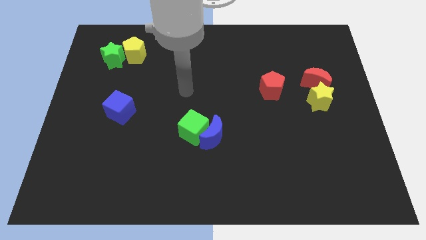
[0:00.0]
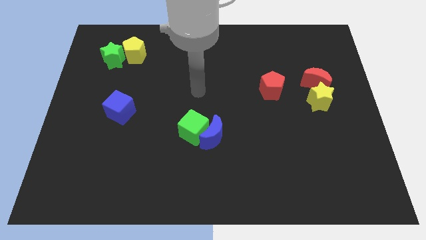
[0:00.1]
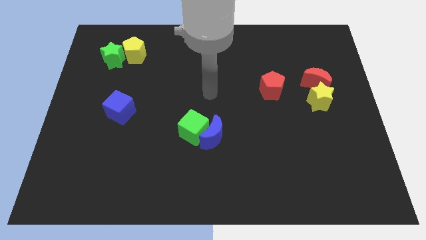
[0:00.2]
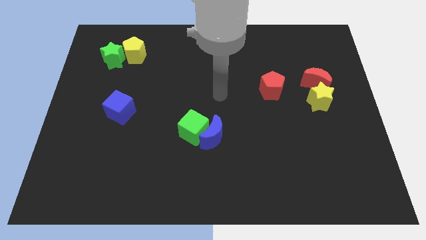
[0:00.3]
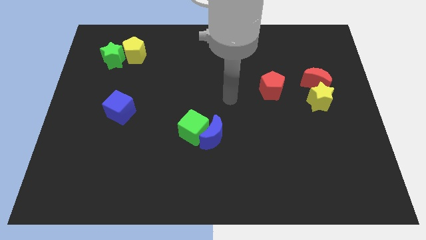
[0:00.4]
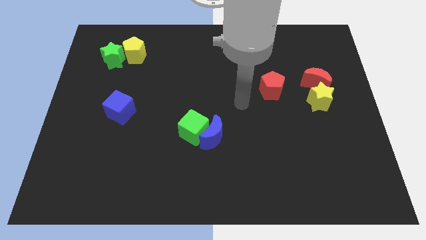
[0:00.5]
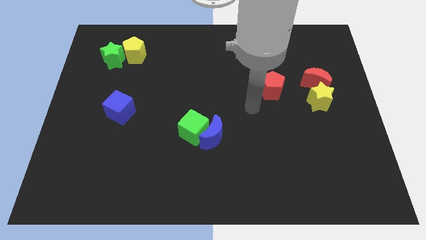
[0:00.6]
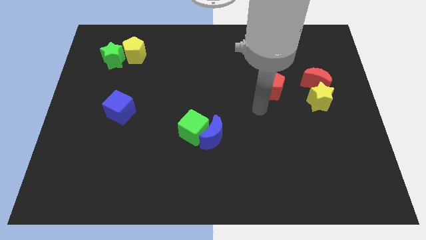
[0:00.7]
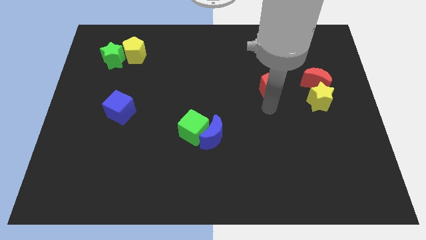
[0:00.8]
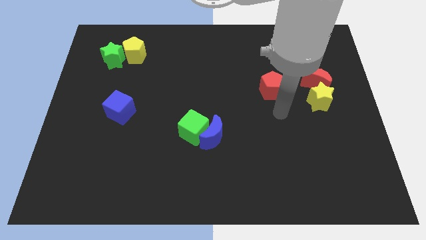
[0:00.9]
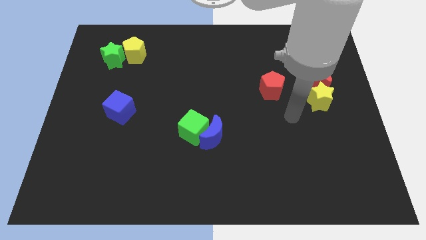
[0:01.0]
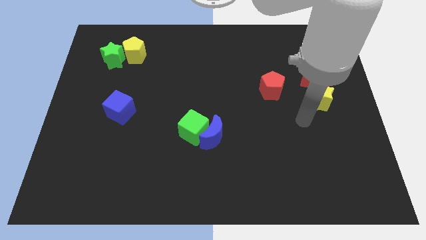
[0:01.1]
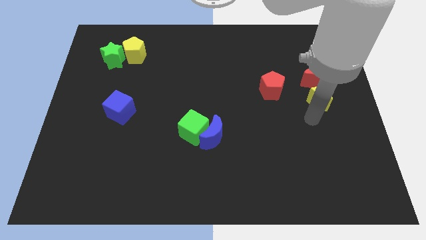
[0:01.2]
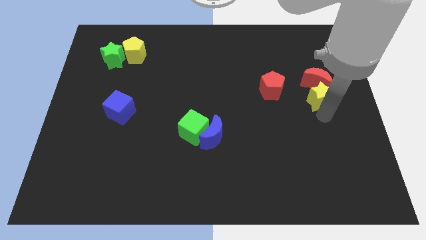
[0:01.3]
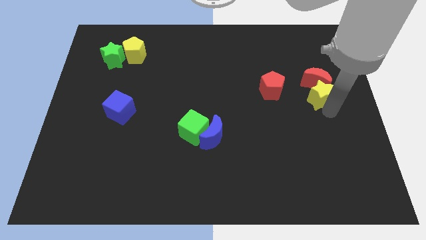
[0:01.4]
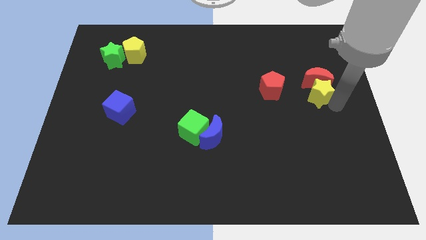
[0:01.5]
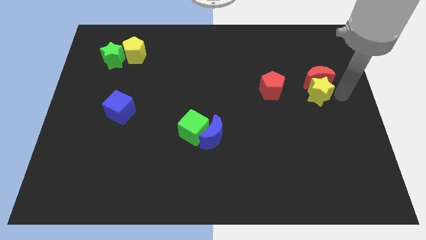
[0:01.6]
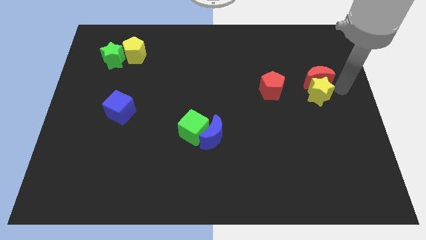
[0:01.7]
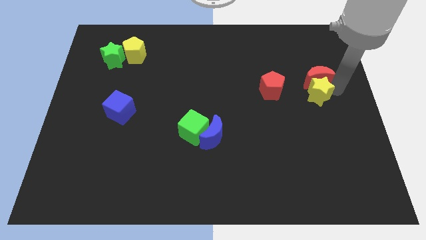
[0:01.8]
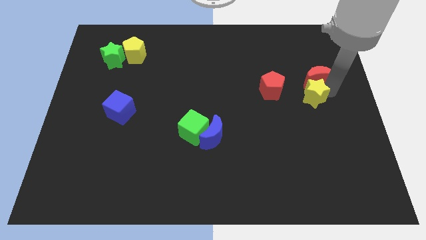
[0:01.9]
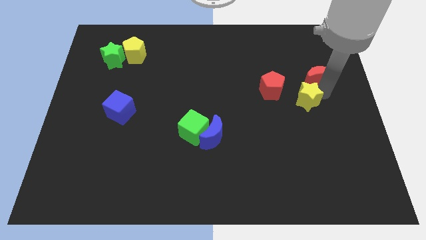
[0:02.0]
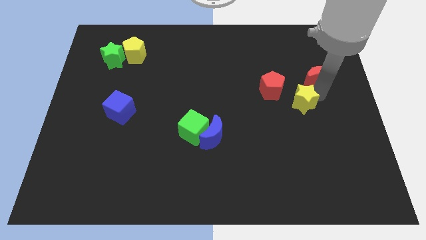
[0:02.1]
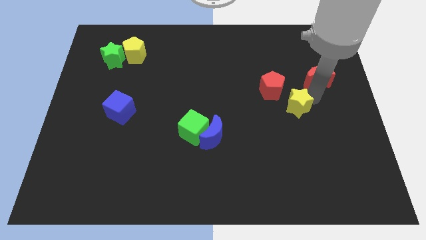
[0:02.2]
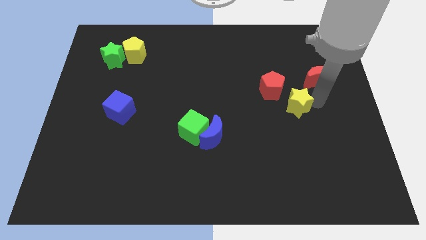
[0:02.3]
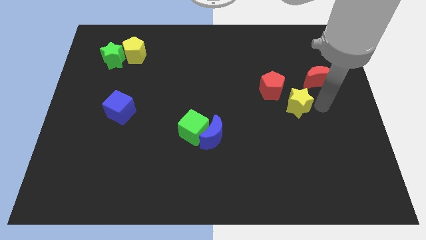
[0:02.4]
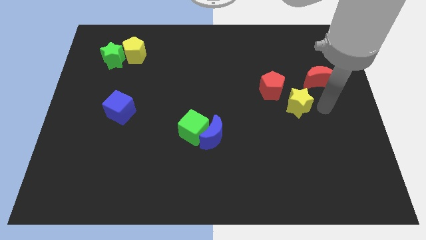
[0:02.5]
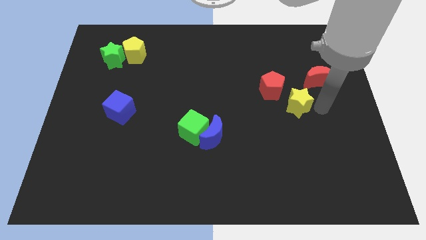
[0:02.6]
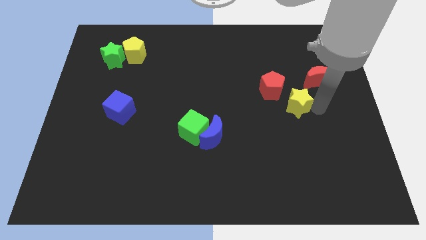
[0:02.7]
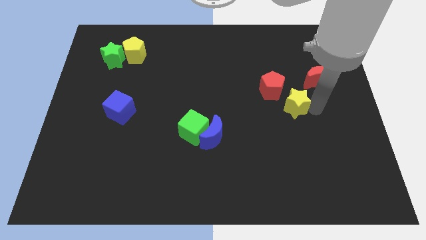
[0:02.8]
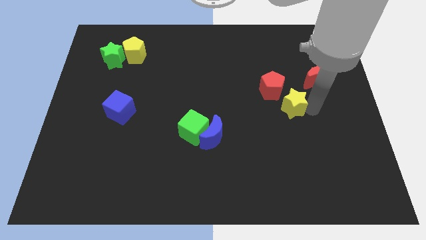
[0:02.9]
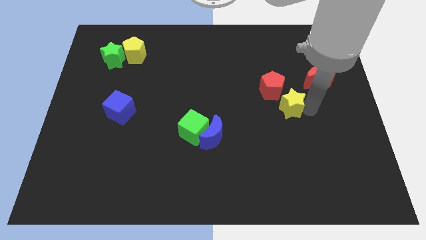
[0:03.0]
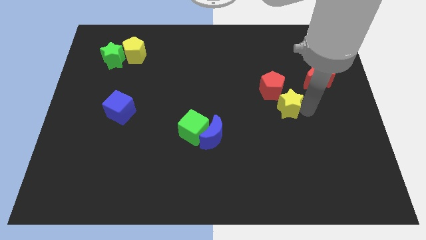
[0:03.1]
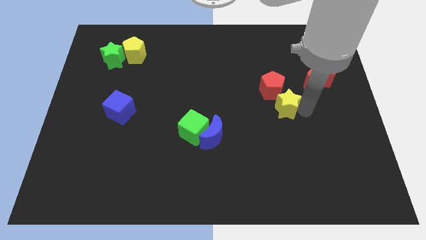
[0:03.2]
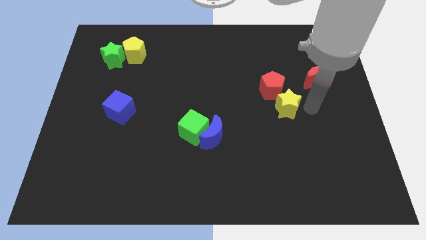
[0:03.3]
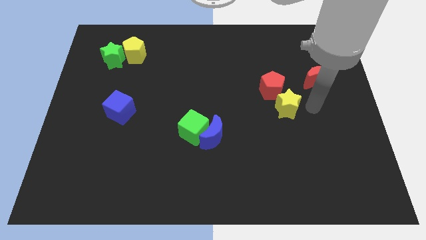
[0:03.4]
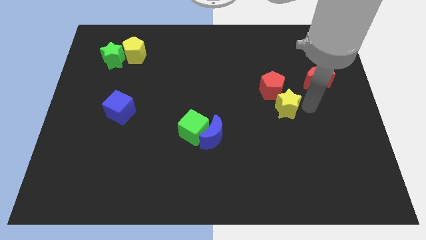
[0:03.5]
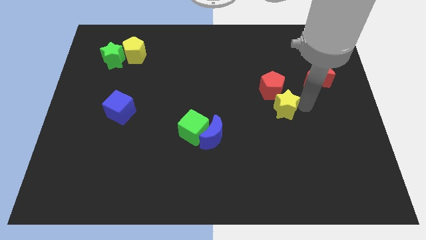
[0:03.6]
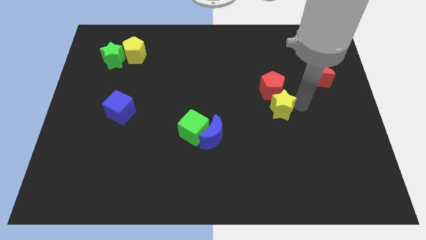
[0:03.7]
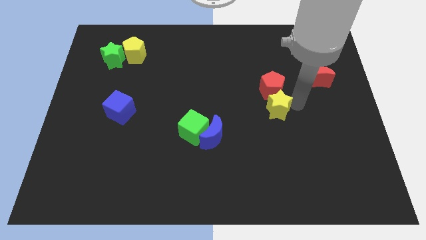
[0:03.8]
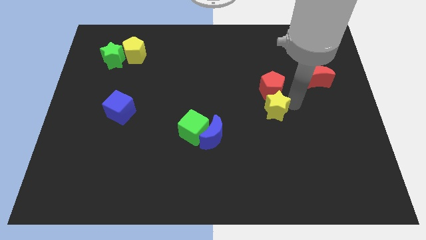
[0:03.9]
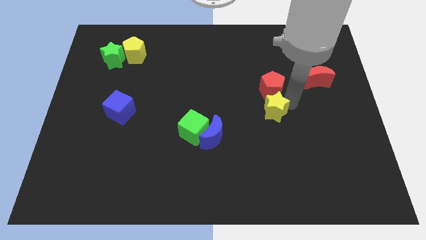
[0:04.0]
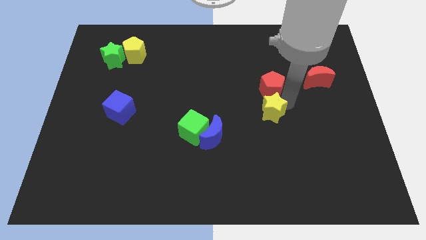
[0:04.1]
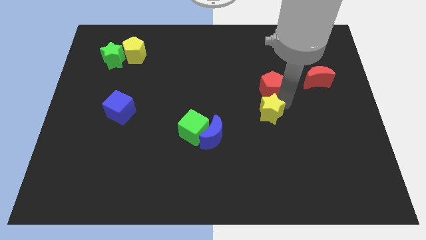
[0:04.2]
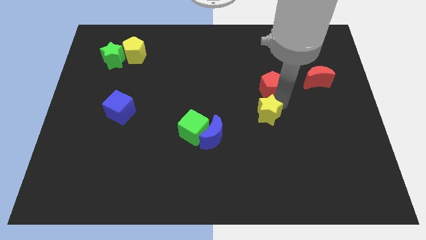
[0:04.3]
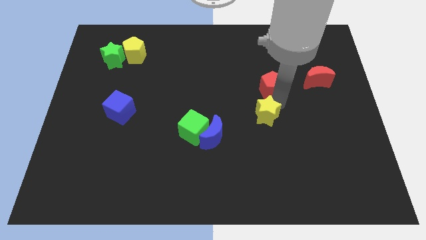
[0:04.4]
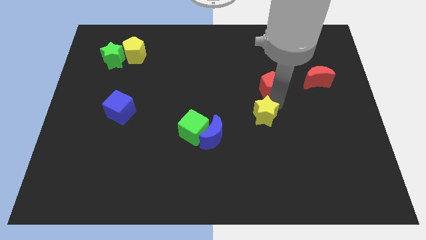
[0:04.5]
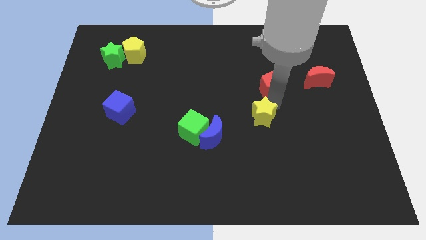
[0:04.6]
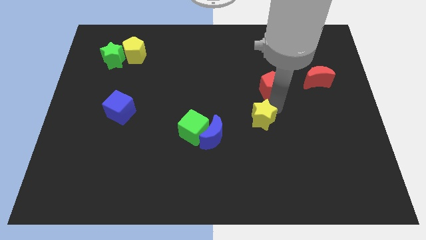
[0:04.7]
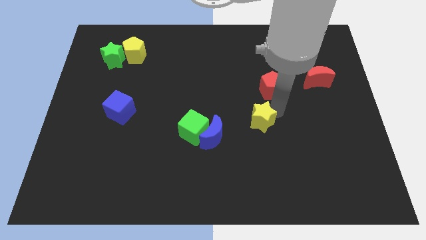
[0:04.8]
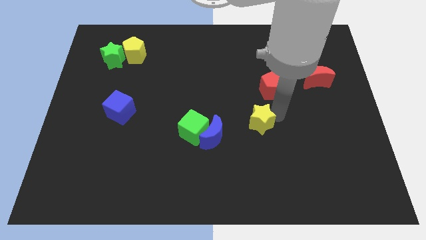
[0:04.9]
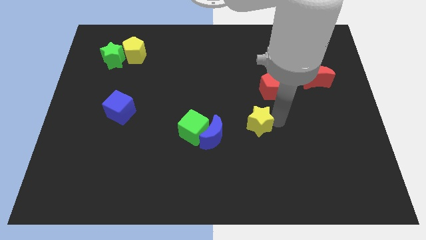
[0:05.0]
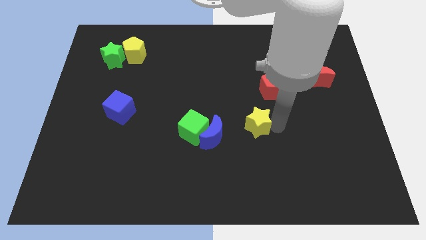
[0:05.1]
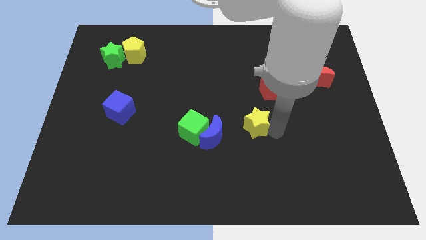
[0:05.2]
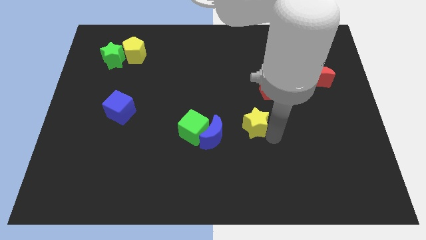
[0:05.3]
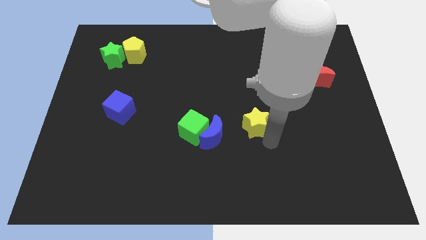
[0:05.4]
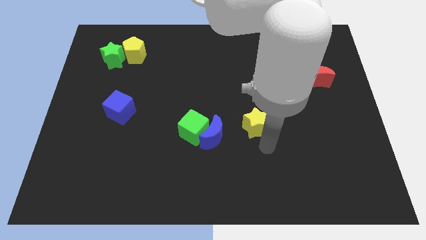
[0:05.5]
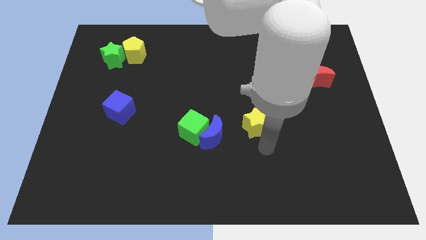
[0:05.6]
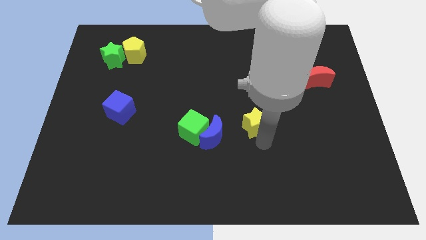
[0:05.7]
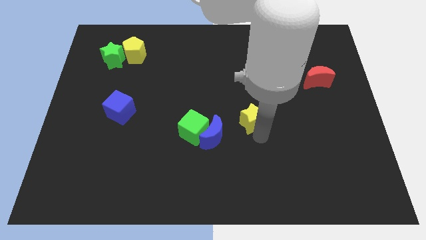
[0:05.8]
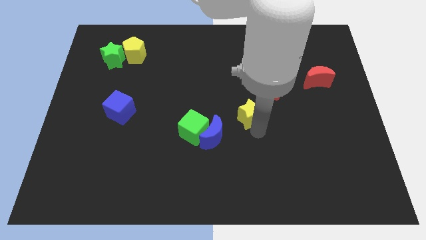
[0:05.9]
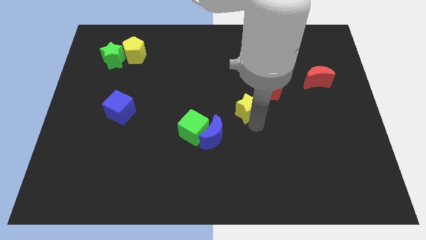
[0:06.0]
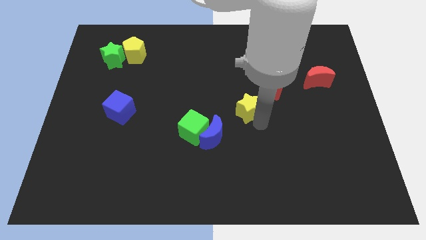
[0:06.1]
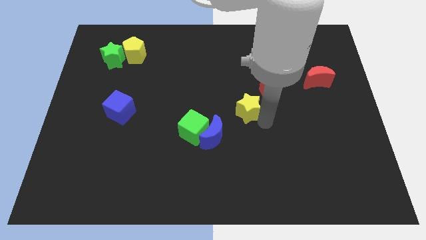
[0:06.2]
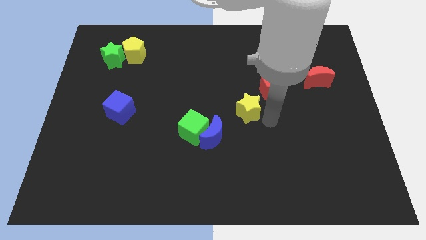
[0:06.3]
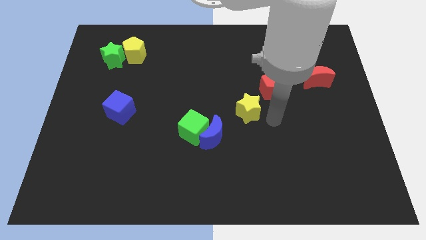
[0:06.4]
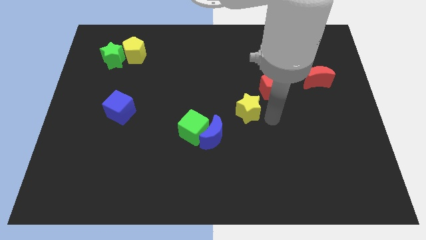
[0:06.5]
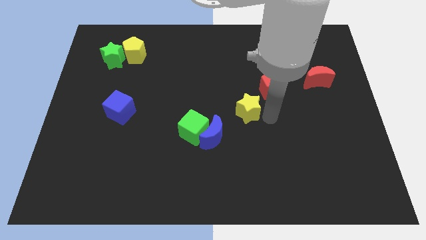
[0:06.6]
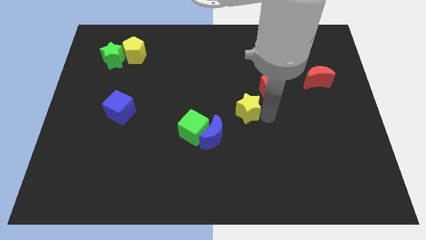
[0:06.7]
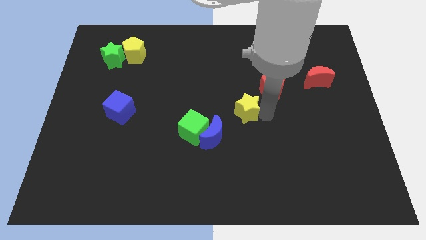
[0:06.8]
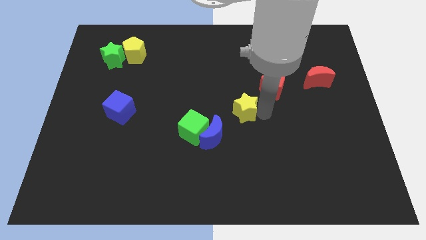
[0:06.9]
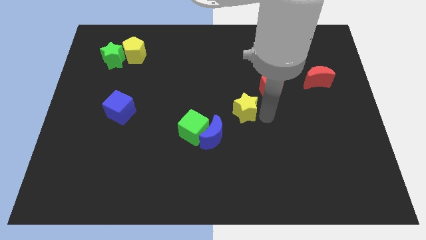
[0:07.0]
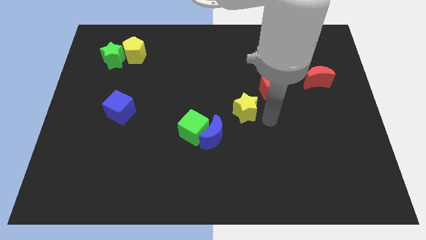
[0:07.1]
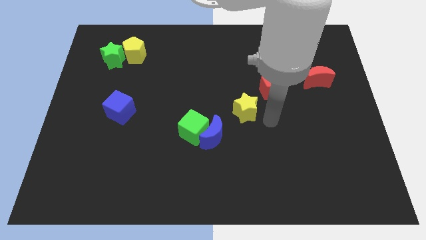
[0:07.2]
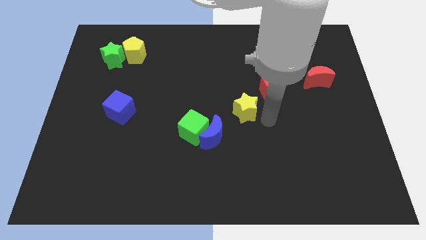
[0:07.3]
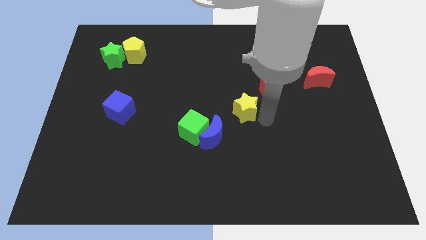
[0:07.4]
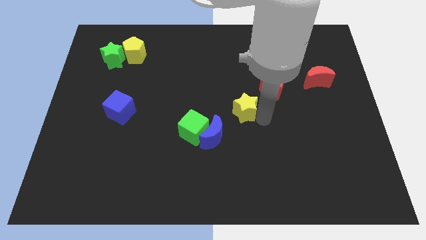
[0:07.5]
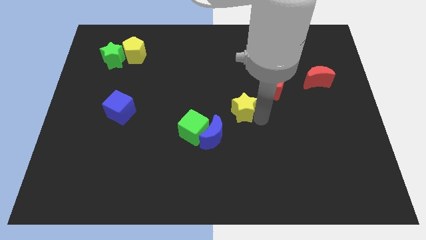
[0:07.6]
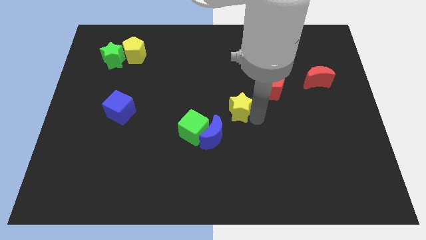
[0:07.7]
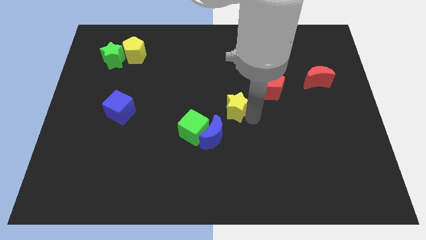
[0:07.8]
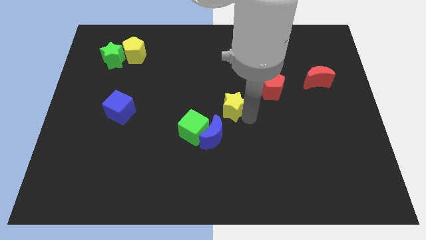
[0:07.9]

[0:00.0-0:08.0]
move the yellow star to the left
